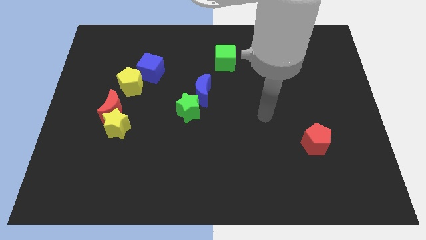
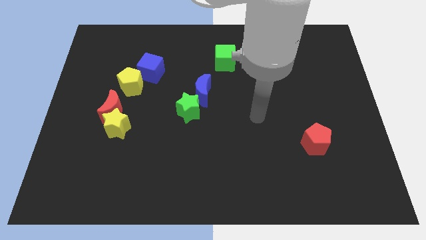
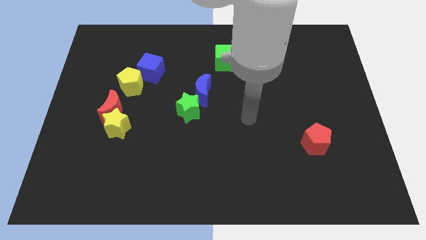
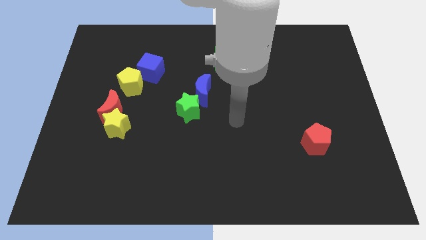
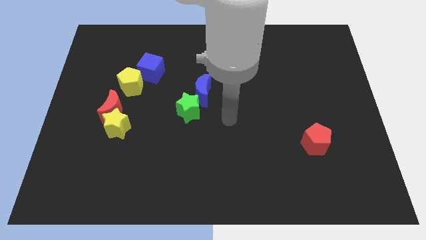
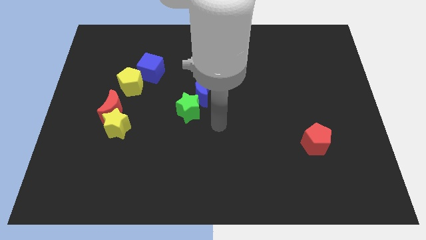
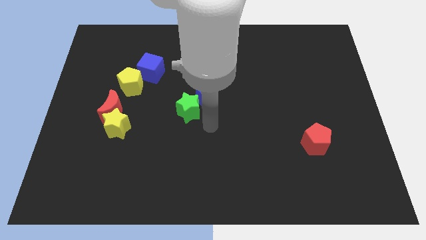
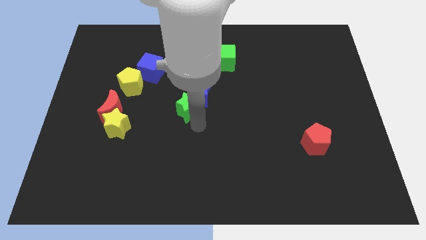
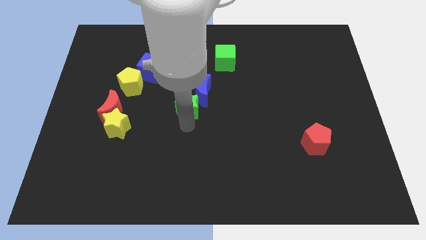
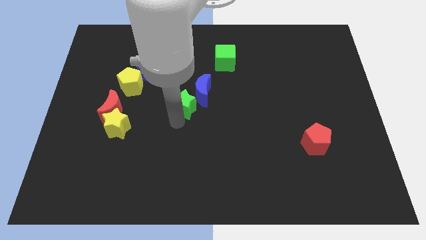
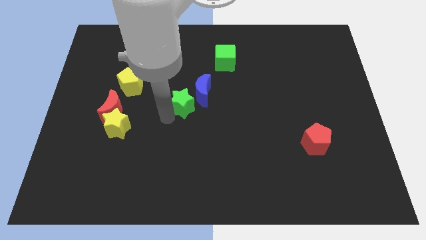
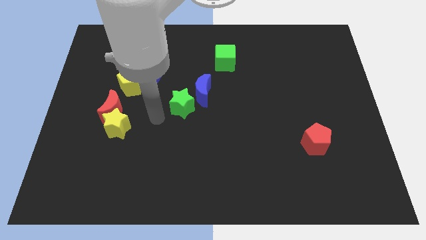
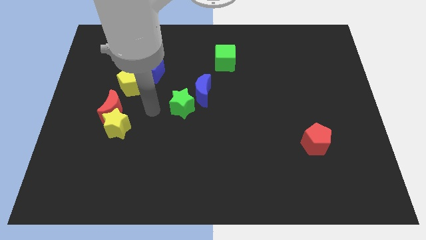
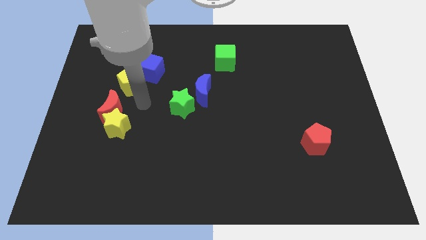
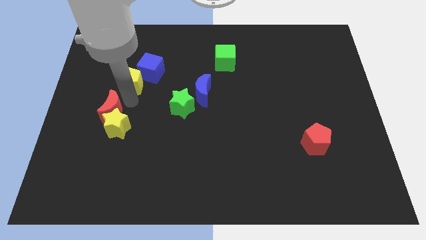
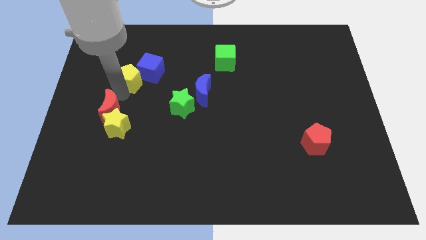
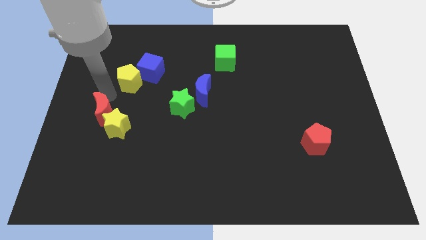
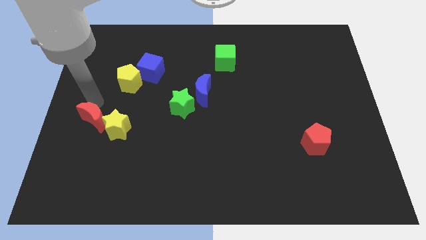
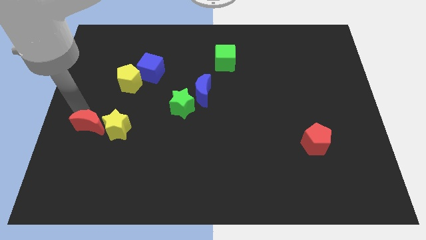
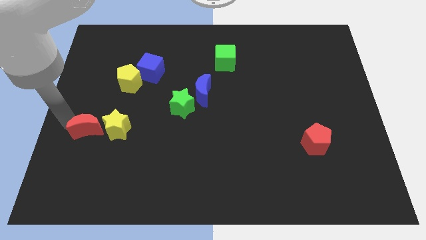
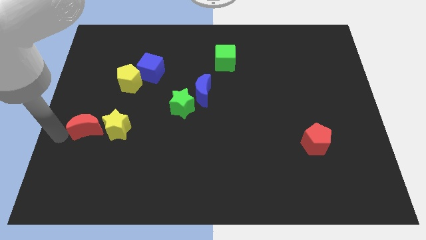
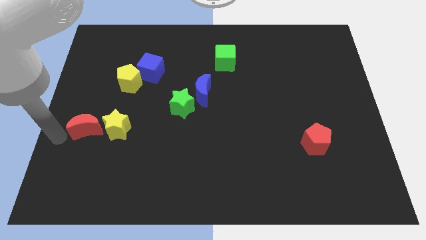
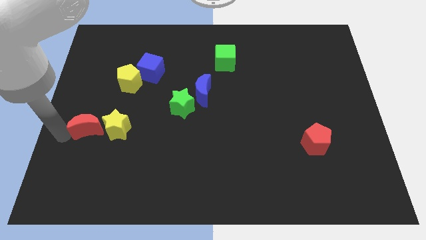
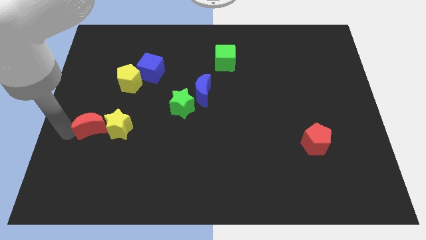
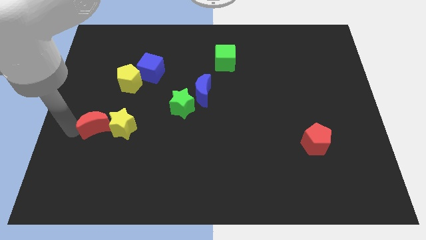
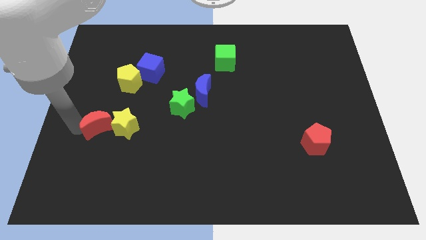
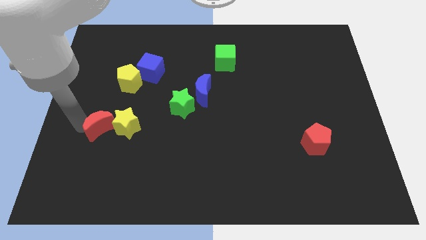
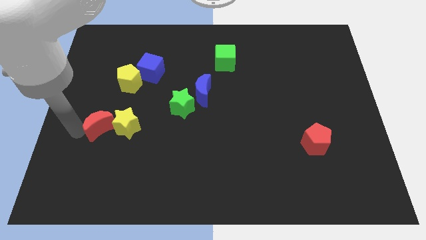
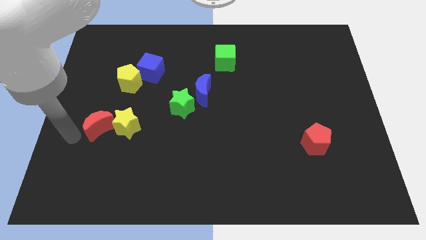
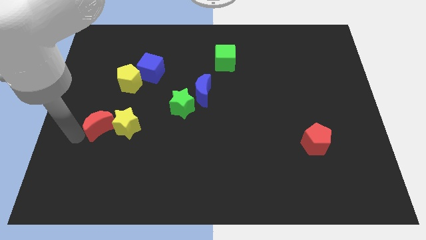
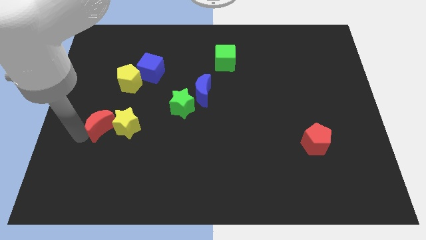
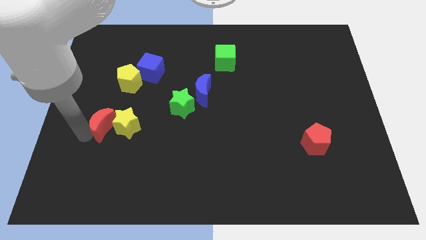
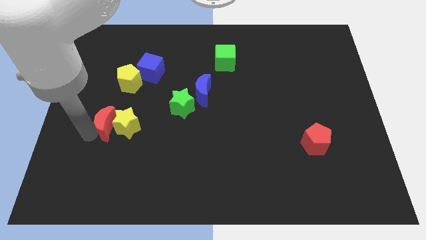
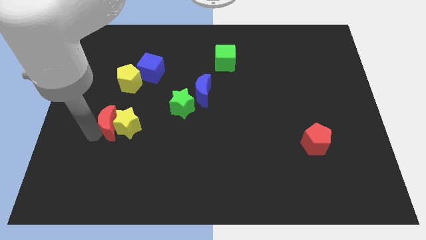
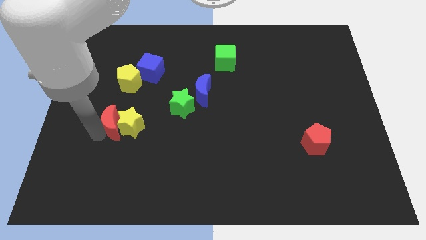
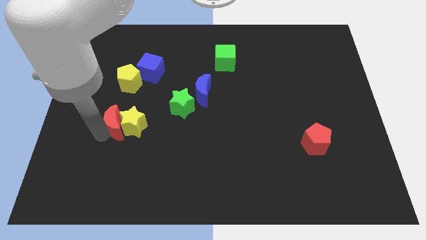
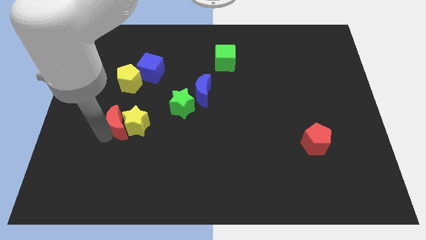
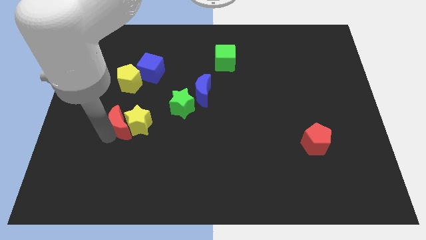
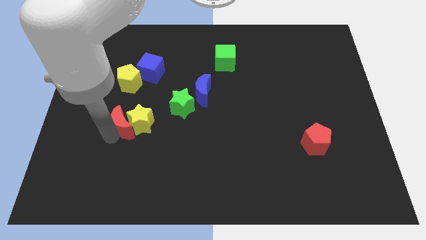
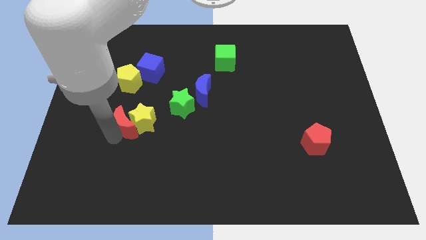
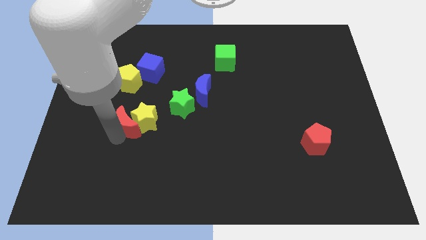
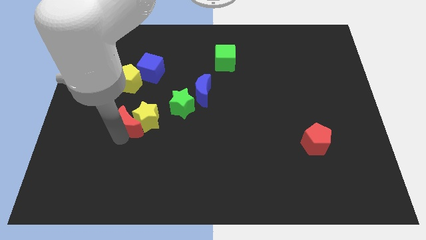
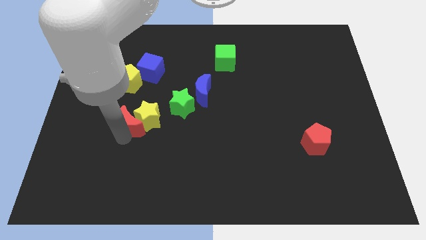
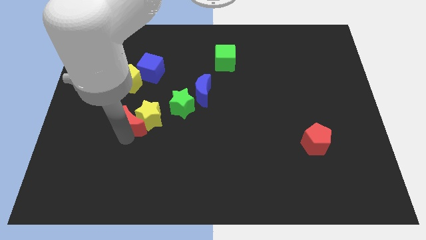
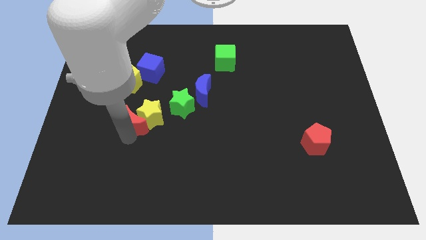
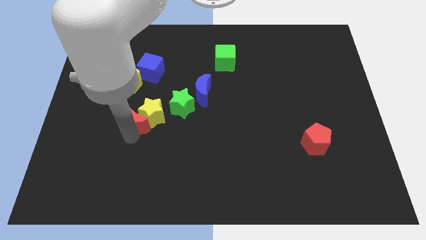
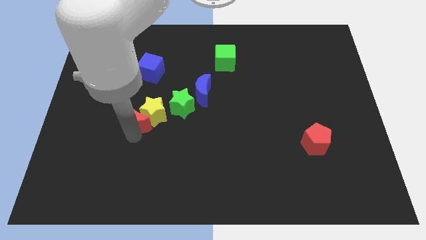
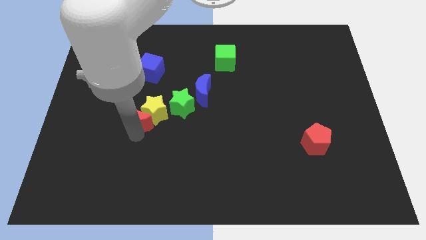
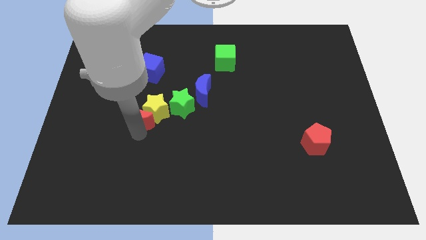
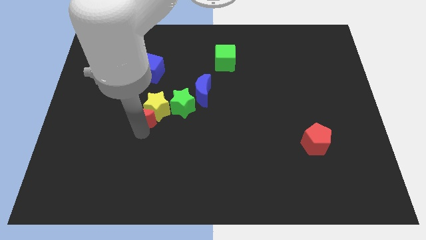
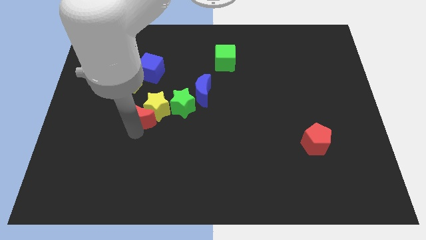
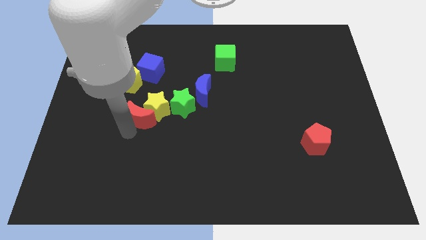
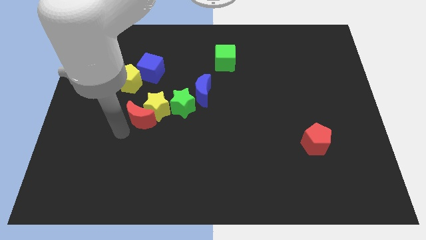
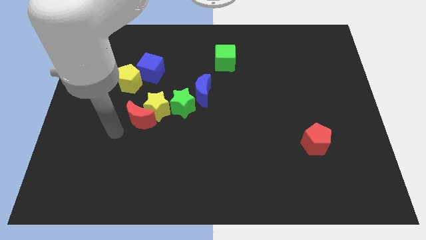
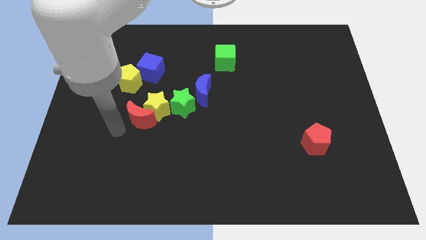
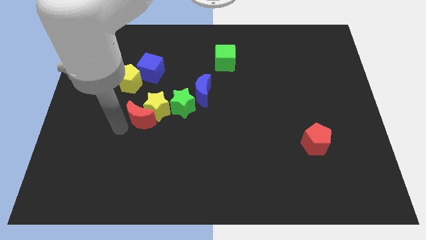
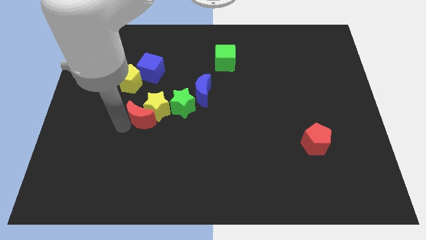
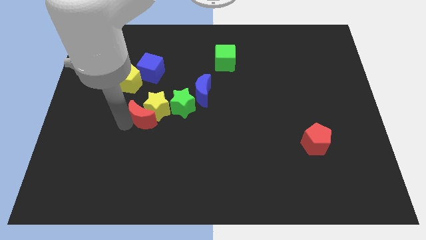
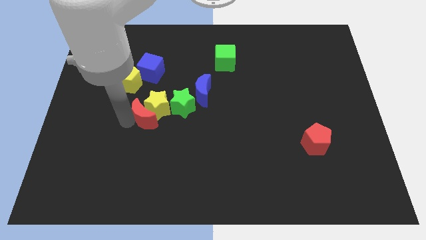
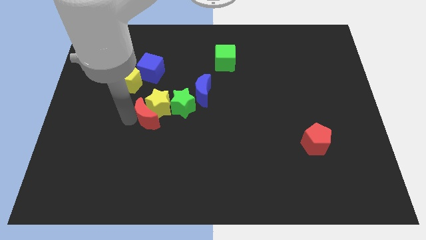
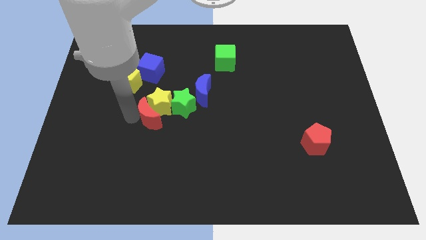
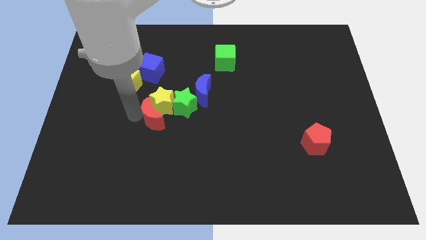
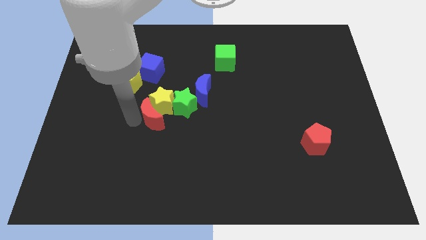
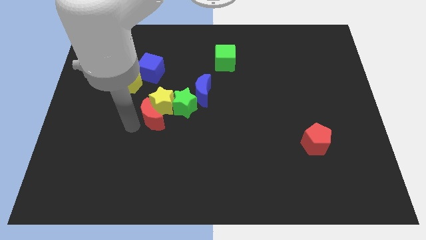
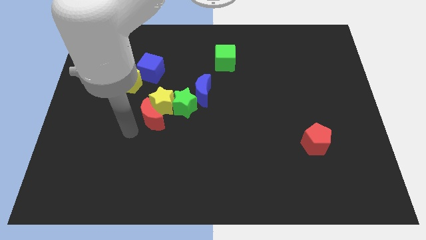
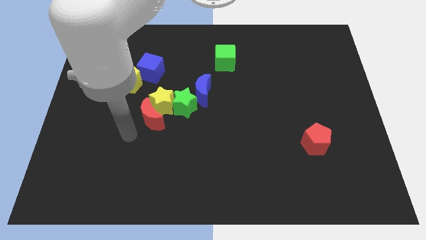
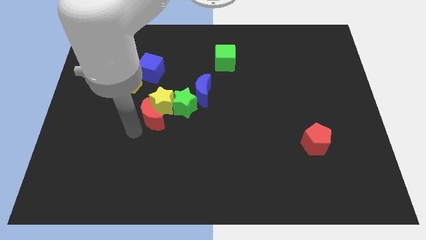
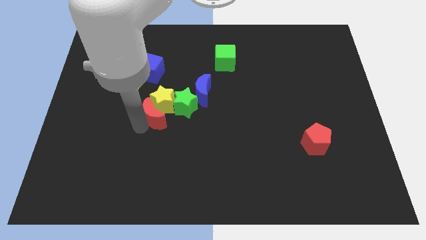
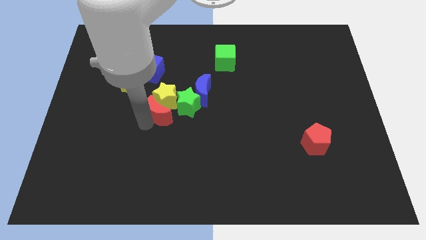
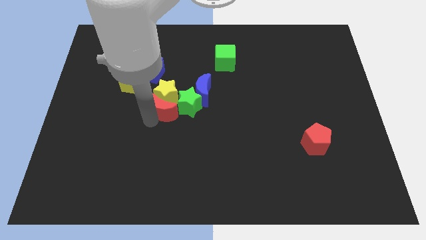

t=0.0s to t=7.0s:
move the red moon close to the green star

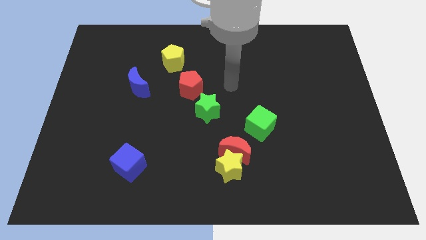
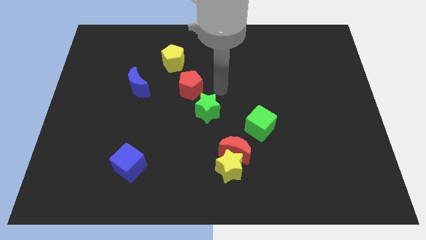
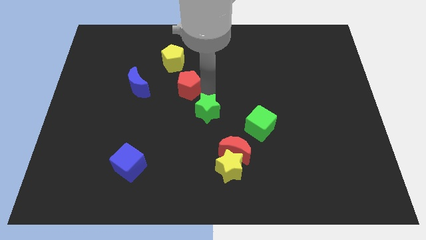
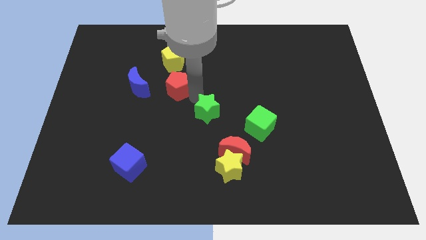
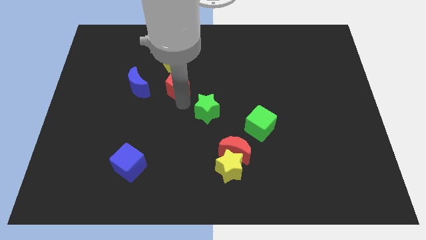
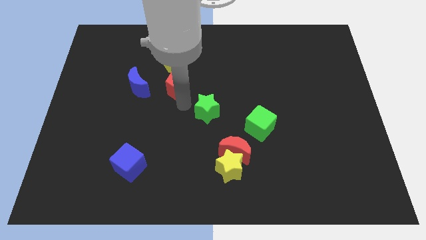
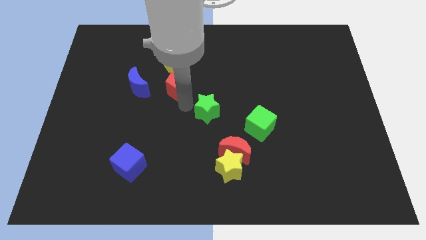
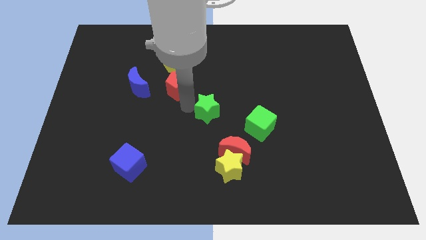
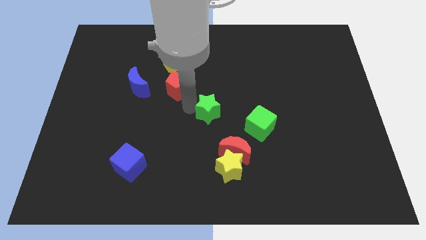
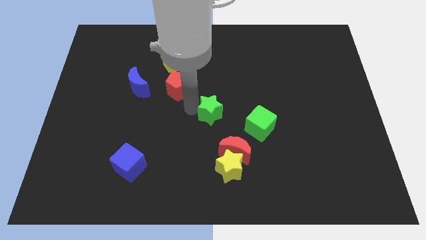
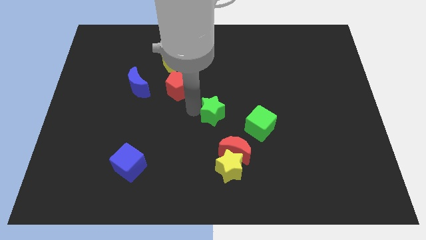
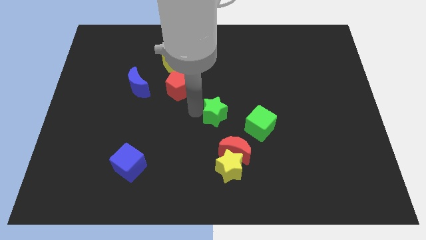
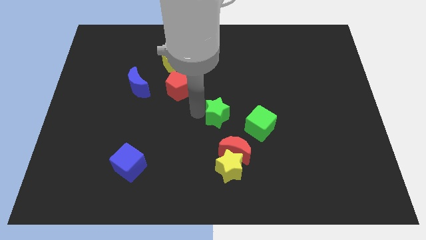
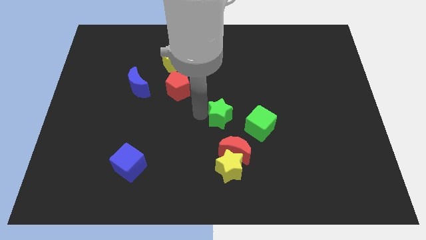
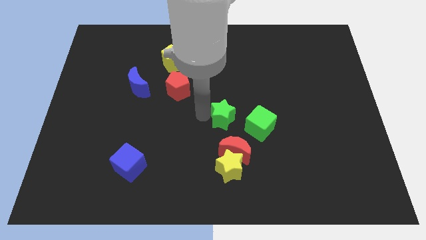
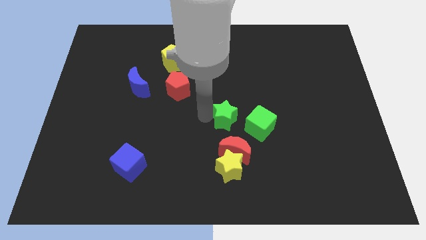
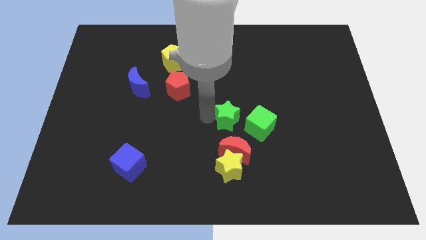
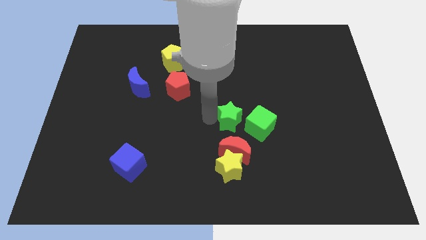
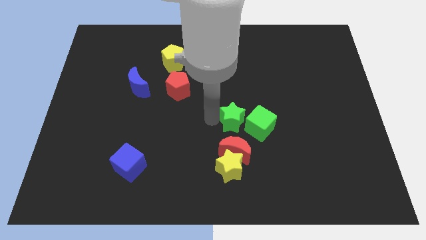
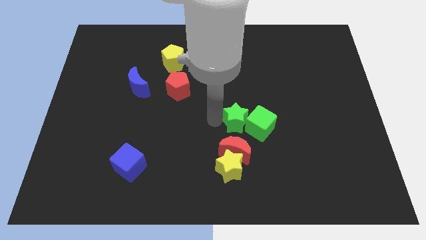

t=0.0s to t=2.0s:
put the green star next to the green cube
